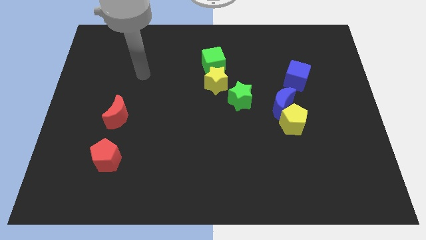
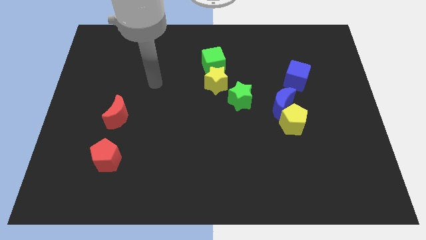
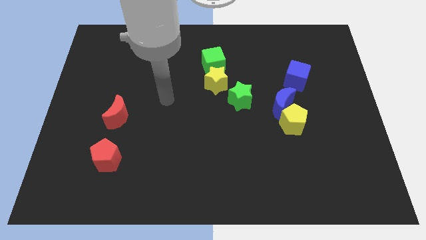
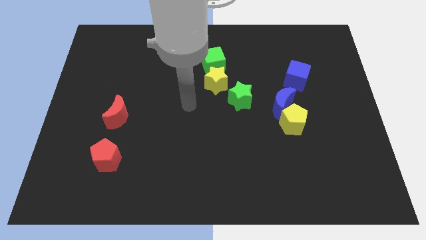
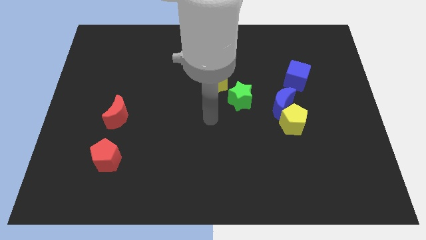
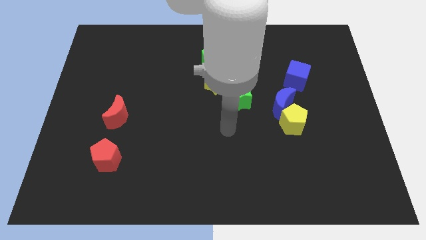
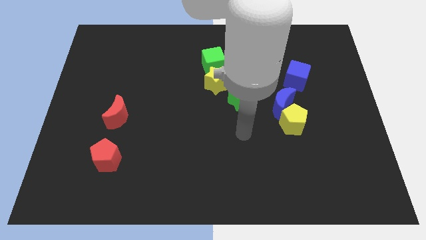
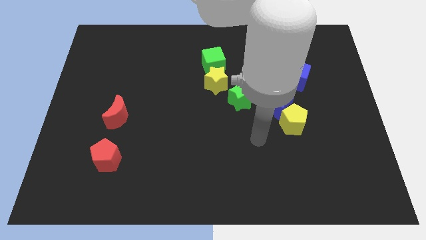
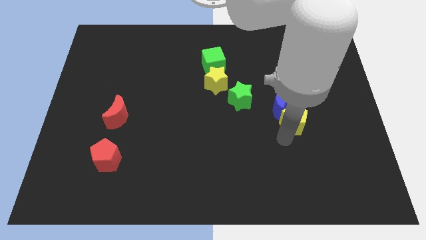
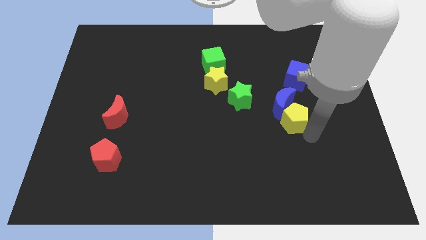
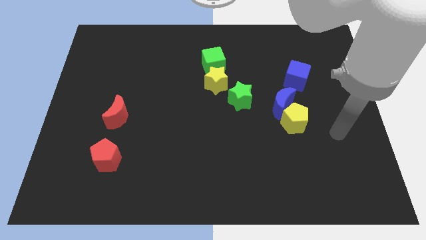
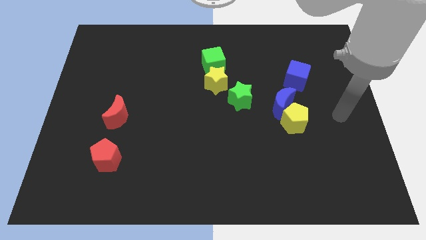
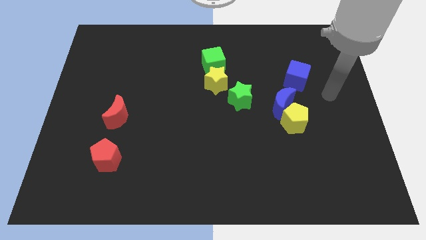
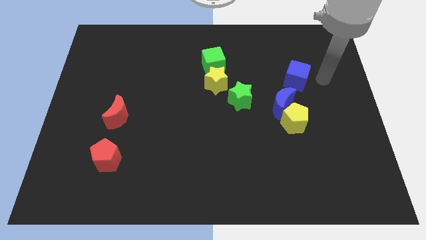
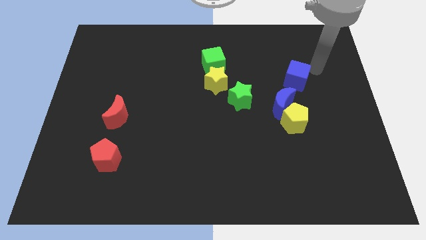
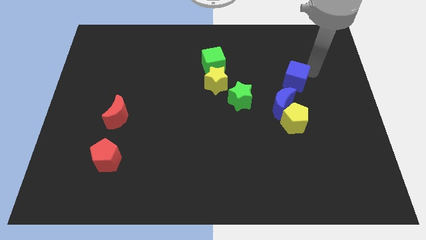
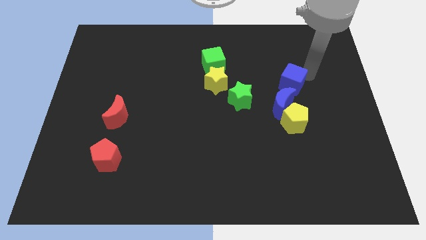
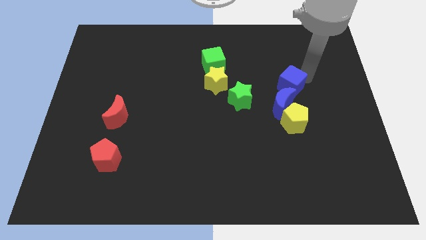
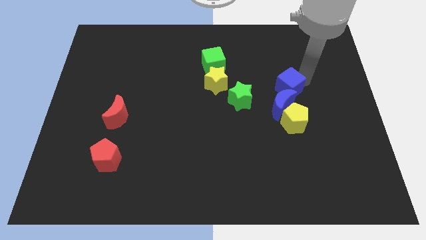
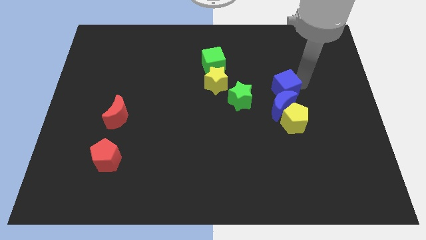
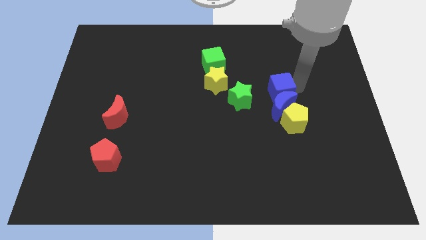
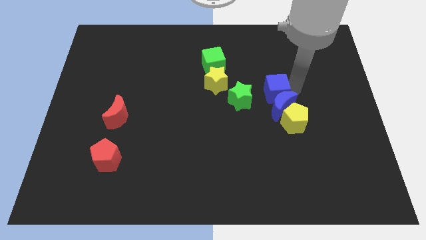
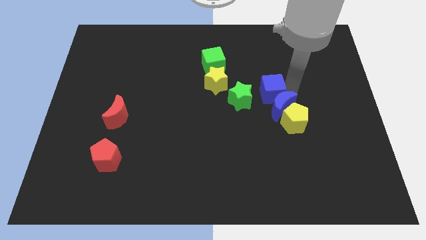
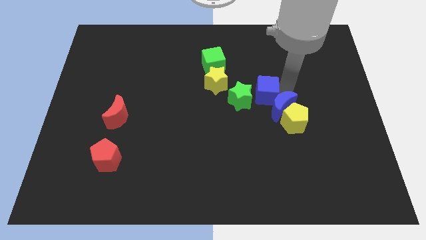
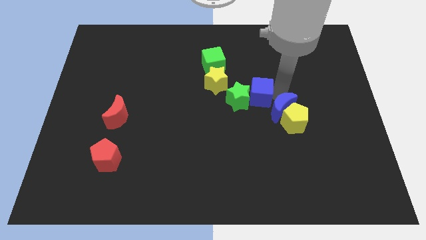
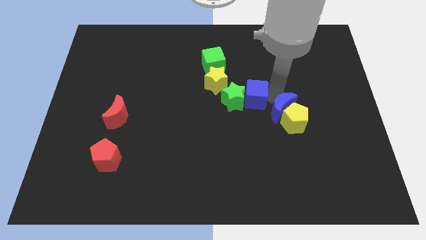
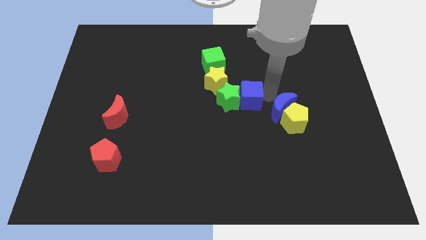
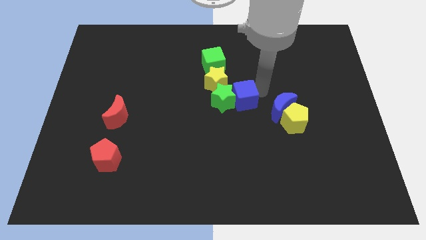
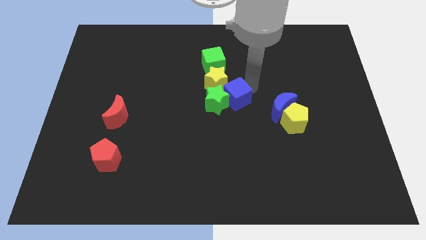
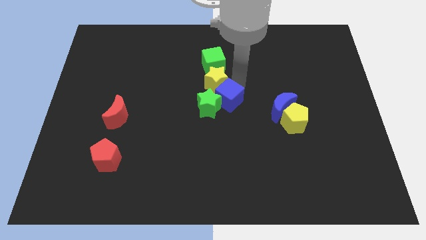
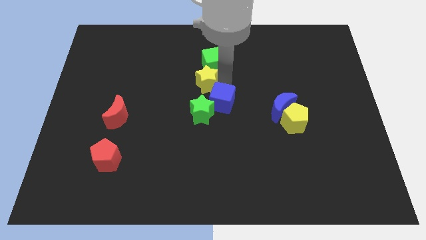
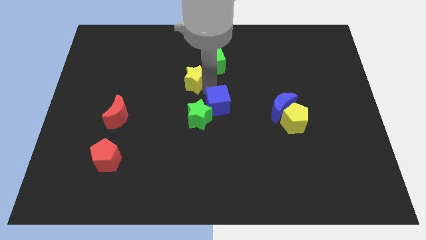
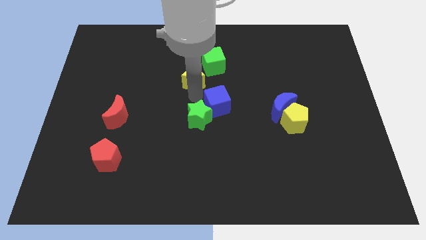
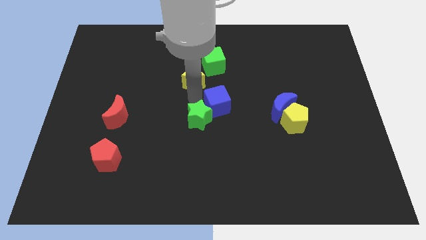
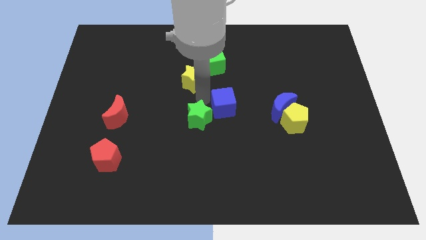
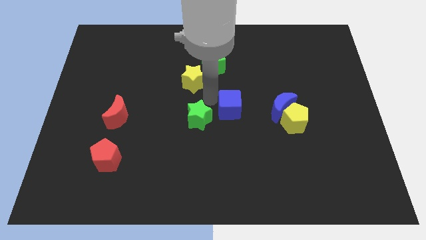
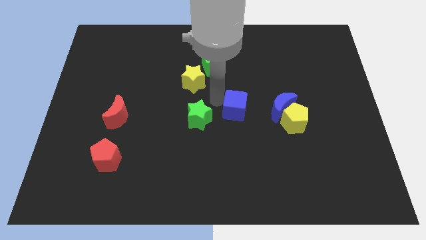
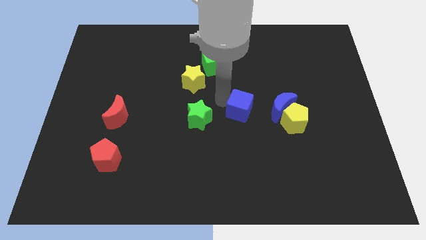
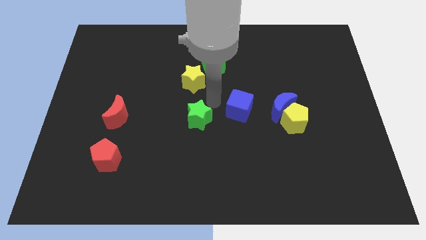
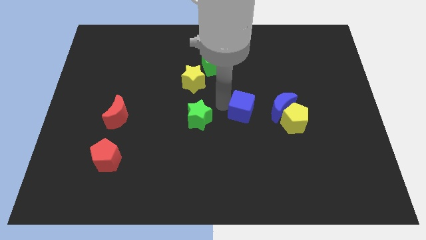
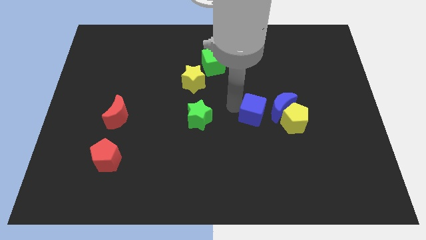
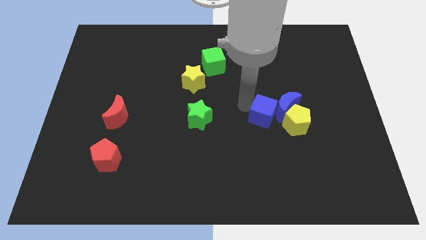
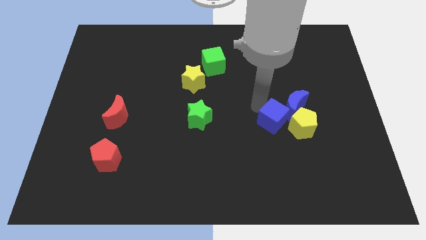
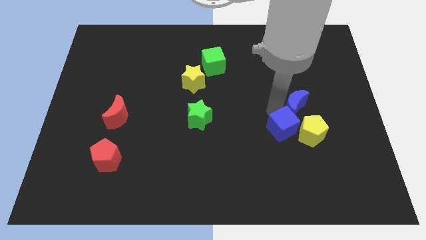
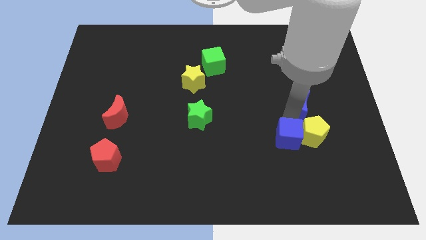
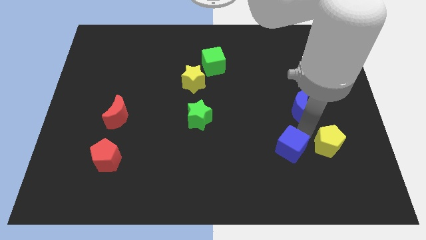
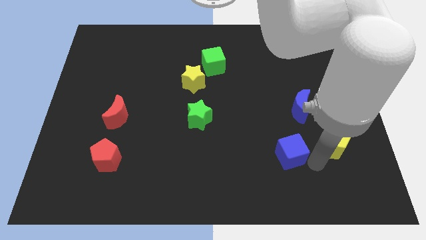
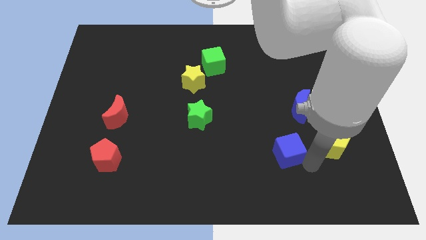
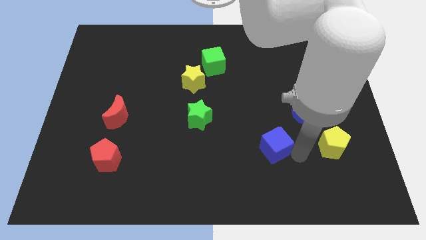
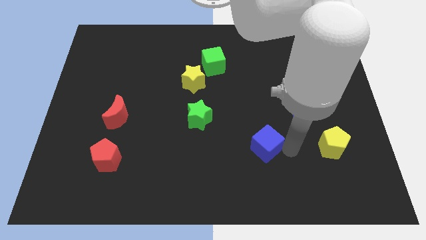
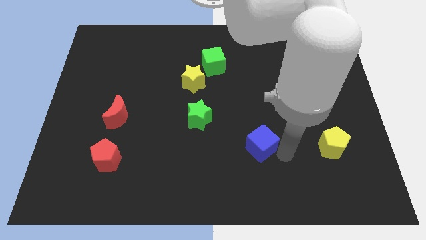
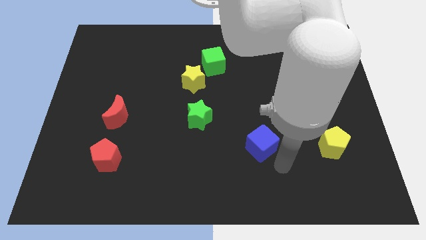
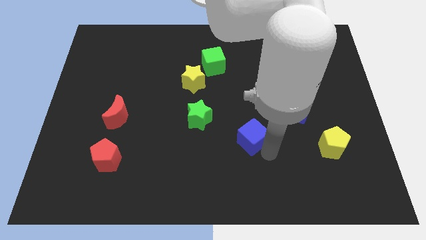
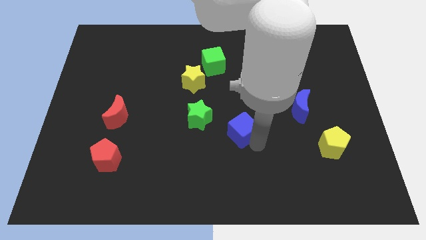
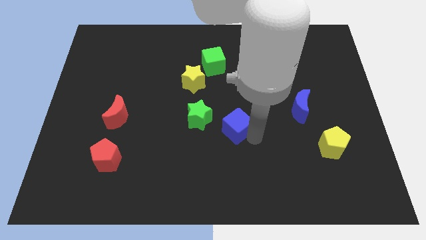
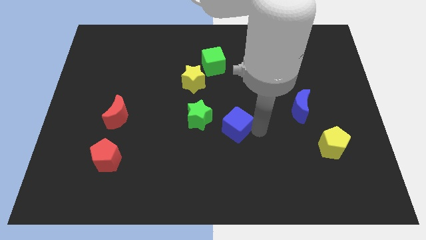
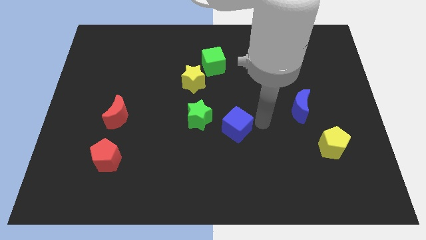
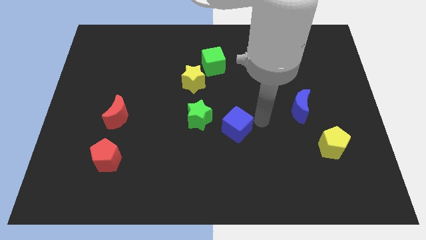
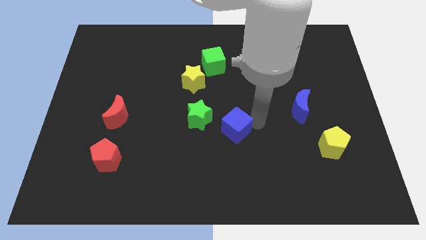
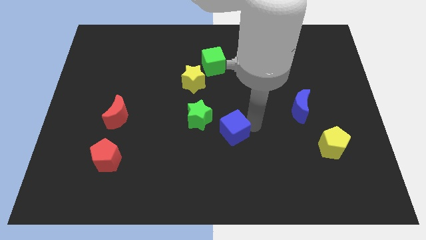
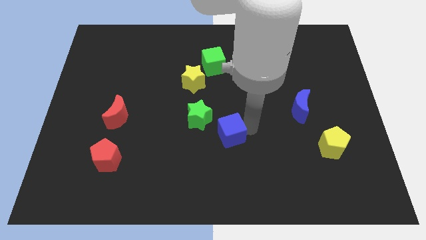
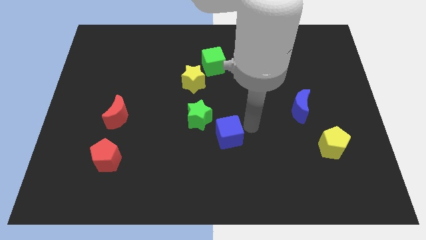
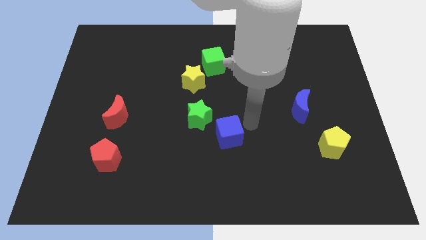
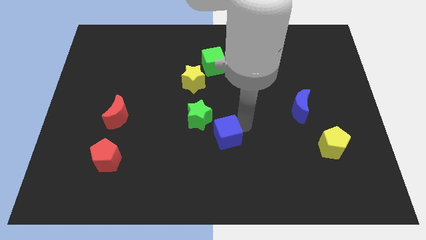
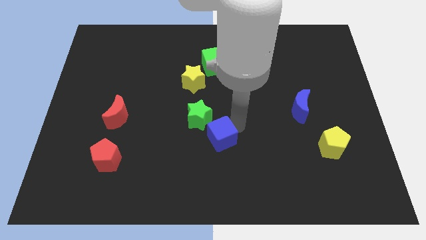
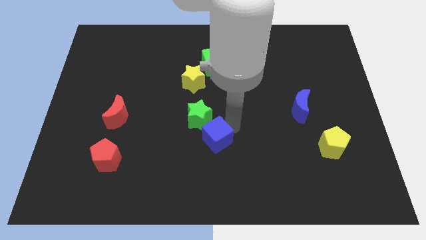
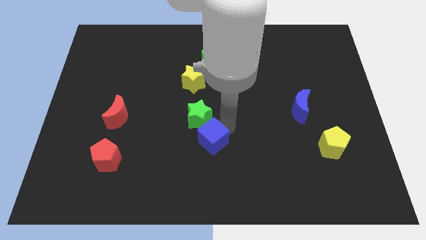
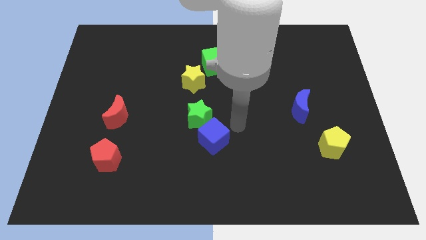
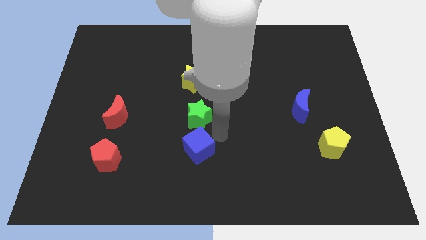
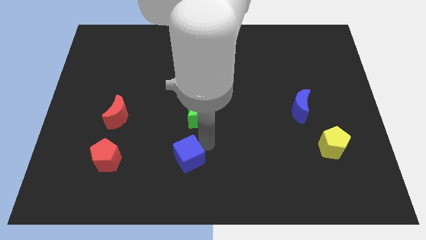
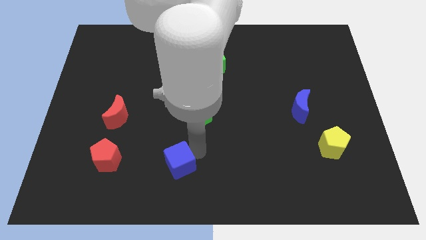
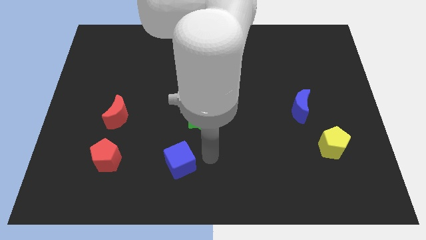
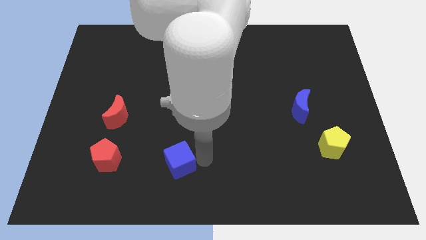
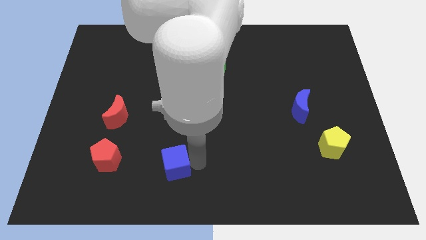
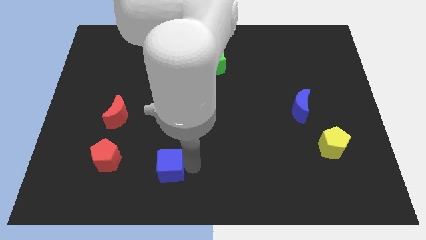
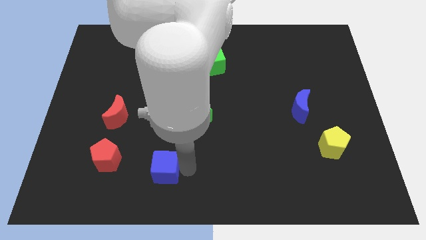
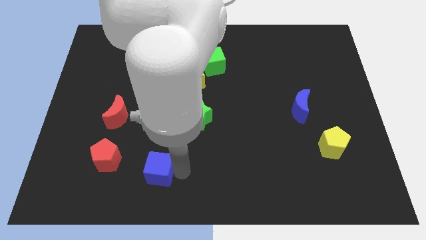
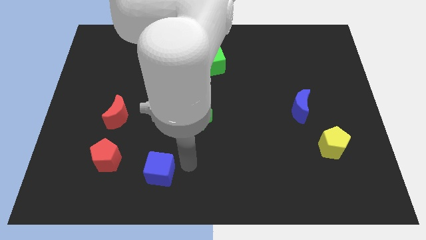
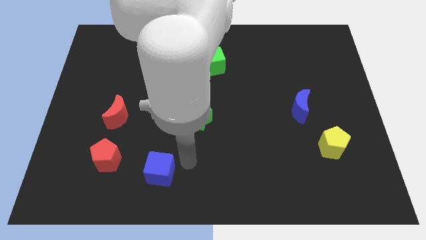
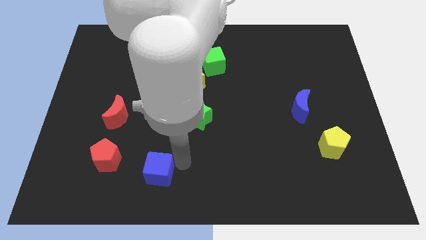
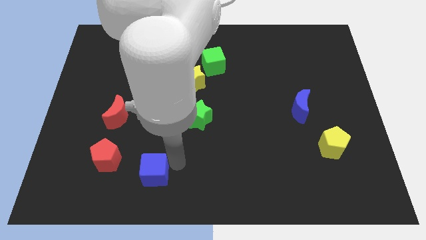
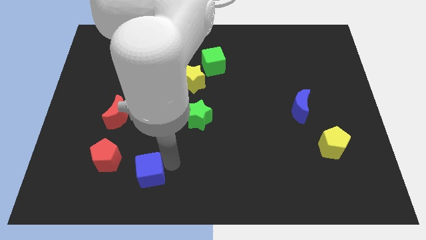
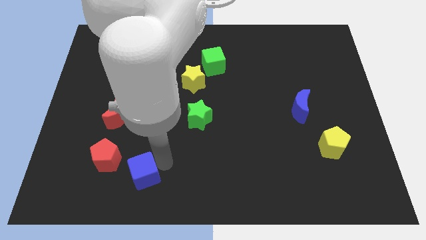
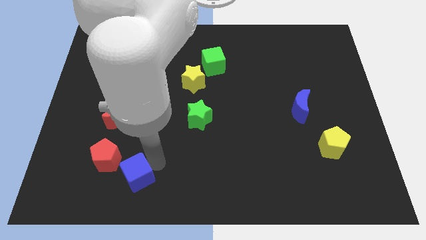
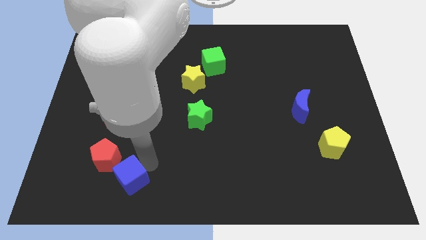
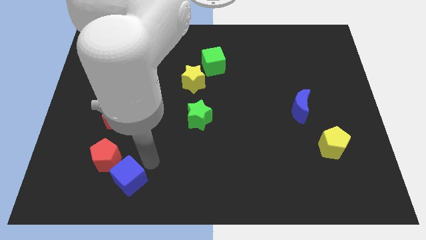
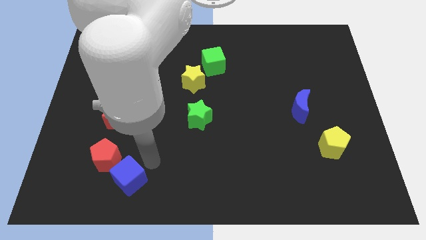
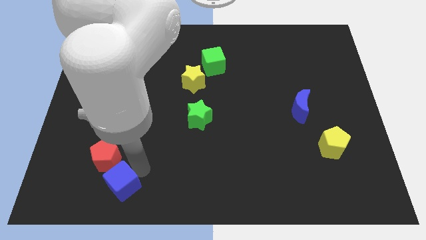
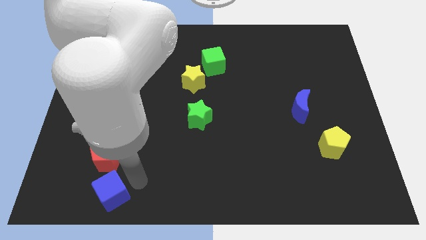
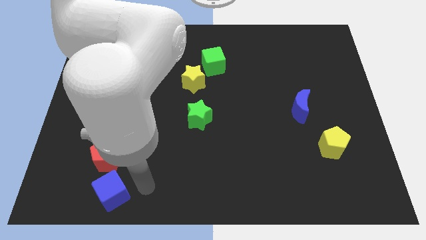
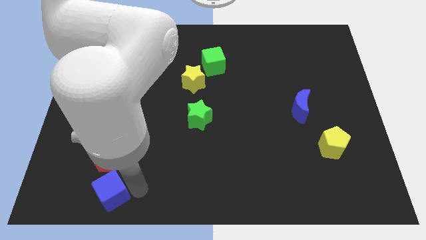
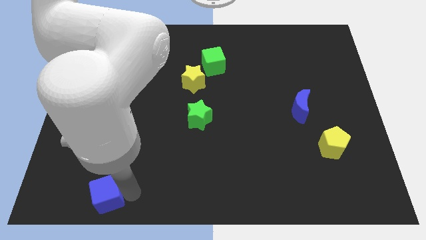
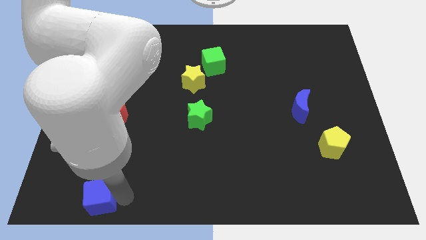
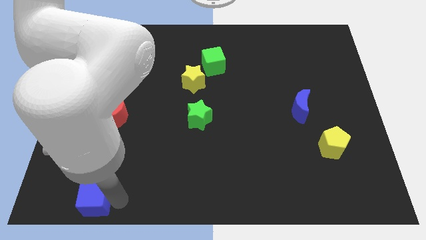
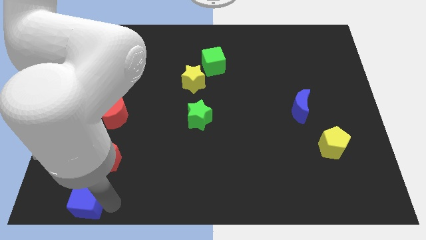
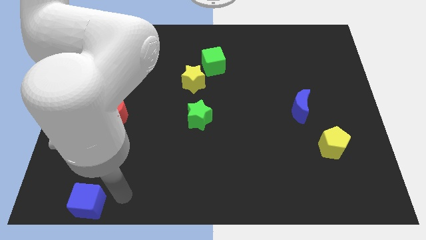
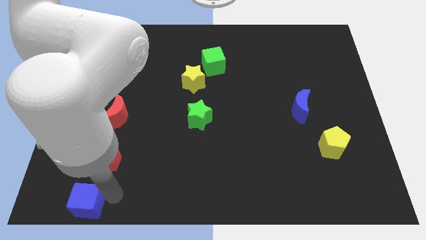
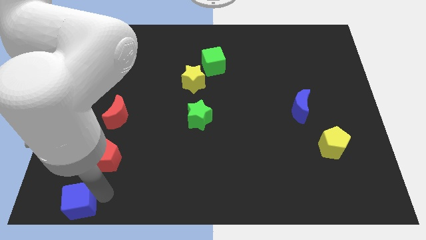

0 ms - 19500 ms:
slide the blue cube to the lower left corner
